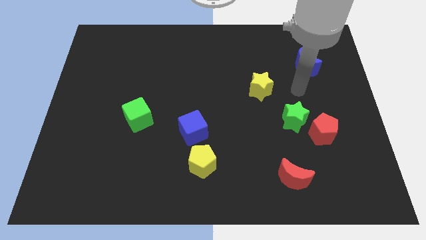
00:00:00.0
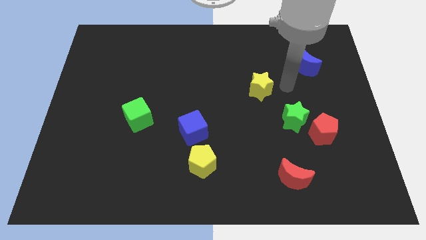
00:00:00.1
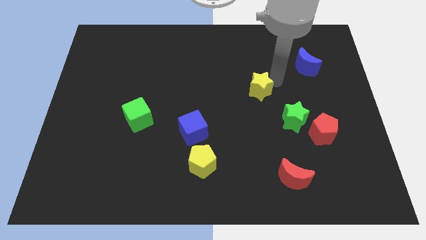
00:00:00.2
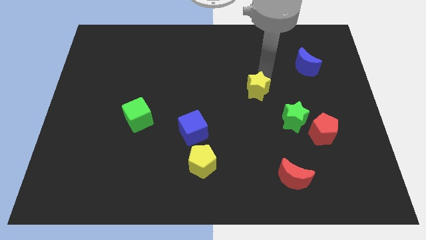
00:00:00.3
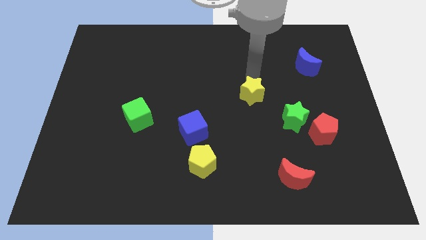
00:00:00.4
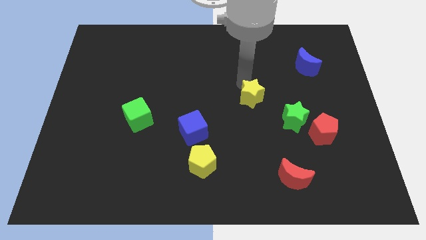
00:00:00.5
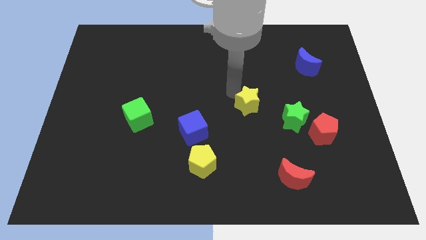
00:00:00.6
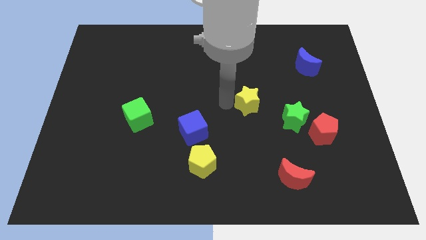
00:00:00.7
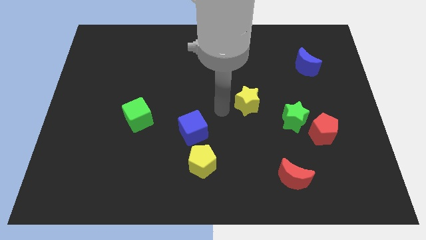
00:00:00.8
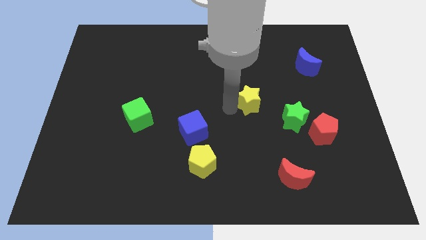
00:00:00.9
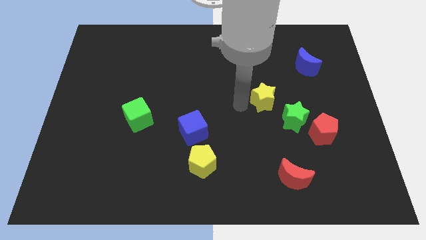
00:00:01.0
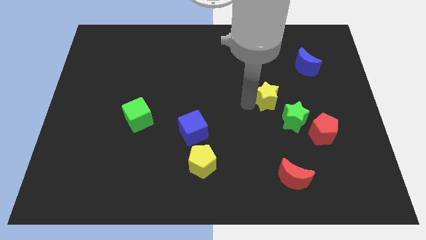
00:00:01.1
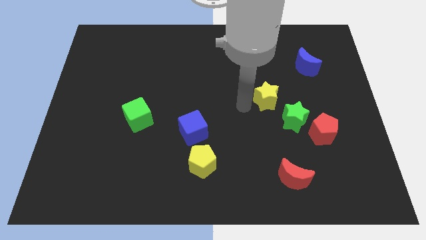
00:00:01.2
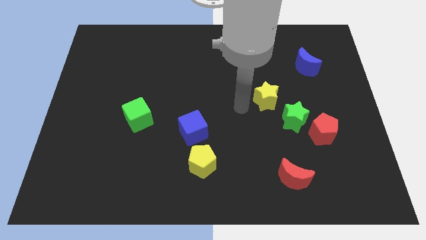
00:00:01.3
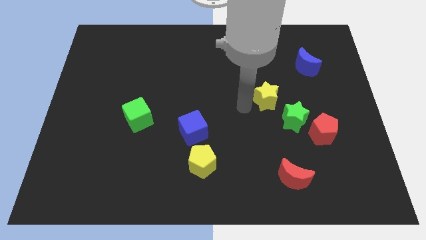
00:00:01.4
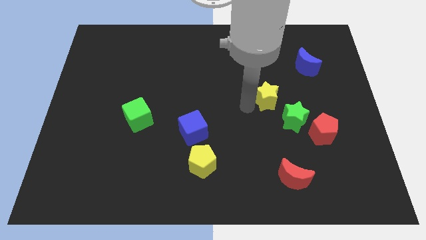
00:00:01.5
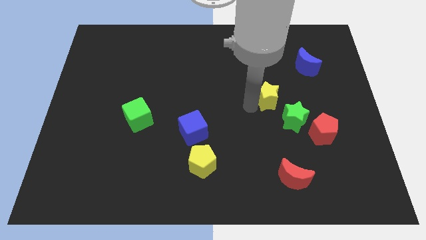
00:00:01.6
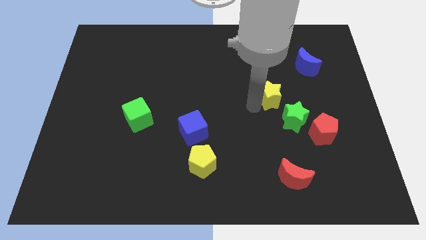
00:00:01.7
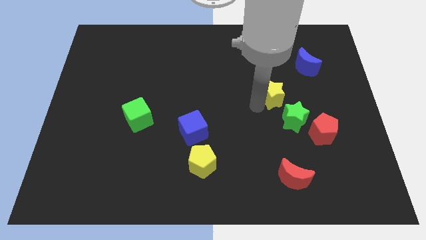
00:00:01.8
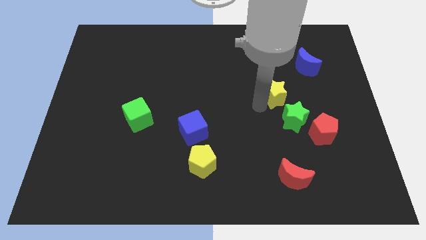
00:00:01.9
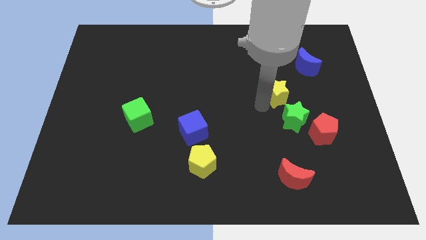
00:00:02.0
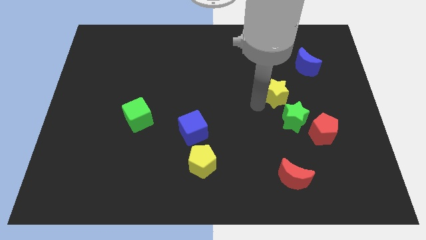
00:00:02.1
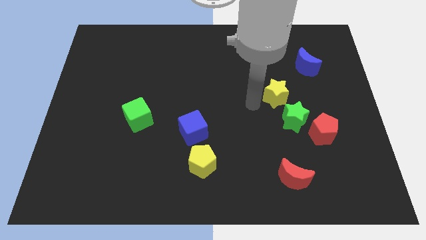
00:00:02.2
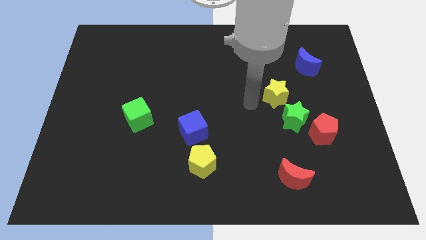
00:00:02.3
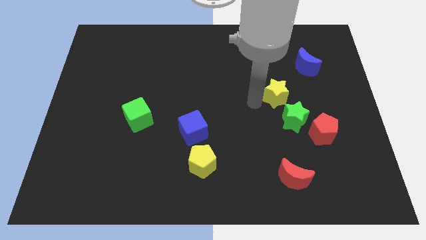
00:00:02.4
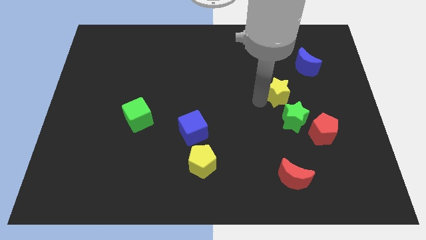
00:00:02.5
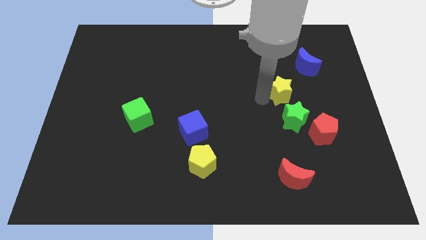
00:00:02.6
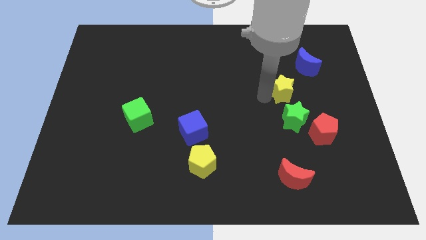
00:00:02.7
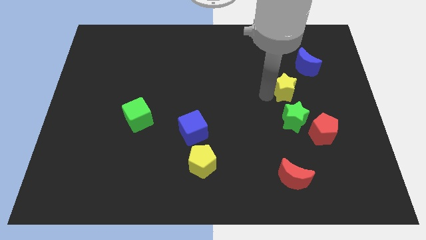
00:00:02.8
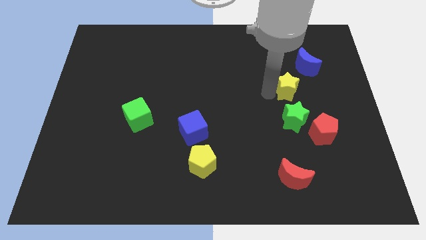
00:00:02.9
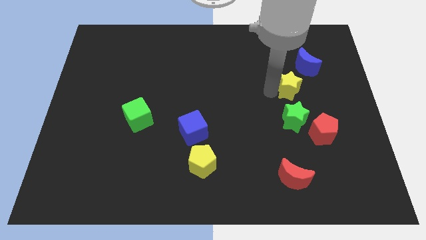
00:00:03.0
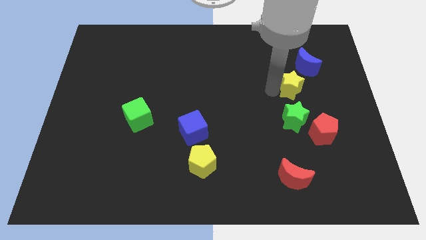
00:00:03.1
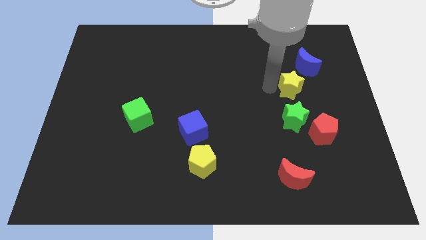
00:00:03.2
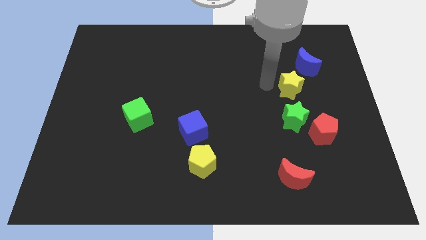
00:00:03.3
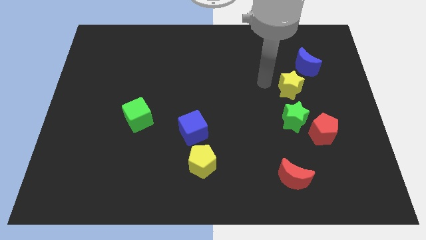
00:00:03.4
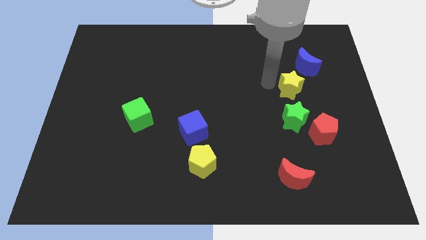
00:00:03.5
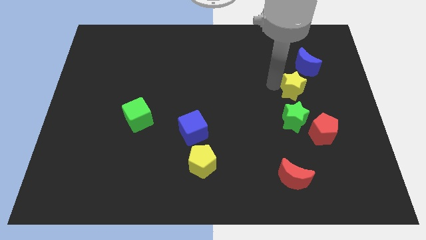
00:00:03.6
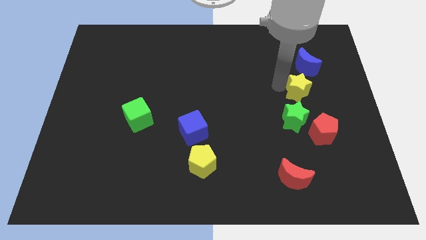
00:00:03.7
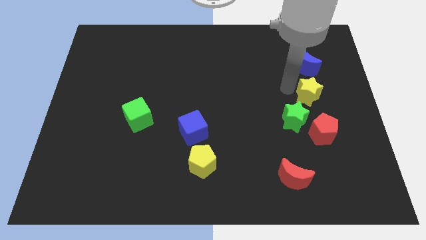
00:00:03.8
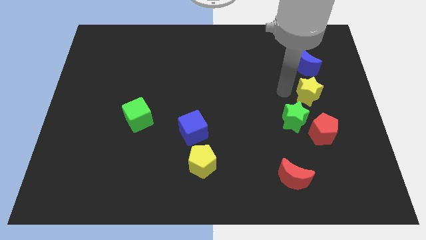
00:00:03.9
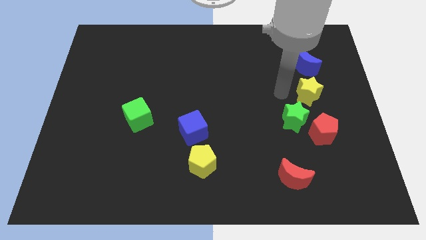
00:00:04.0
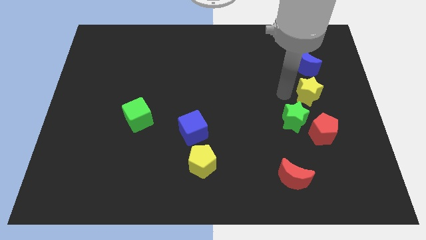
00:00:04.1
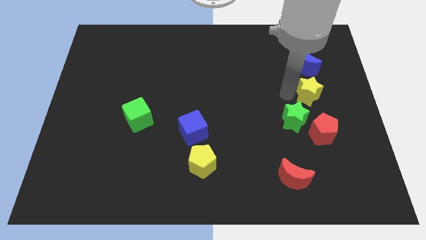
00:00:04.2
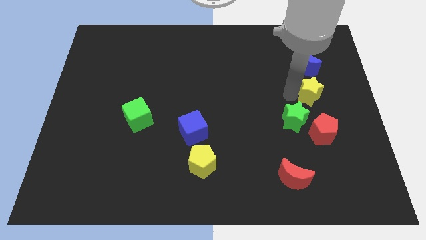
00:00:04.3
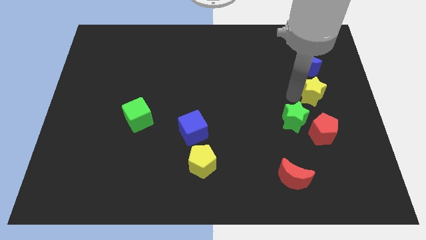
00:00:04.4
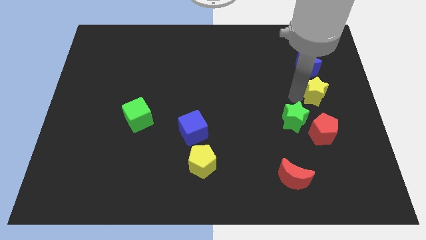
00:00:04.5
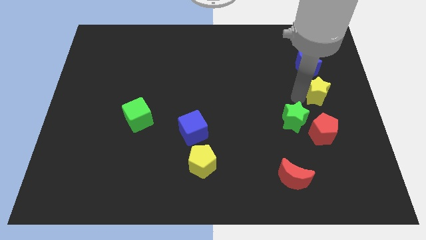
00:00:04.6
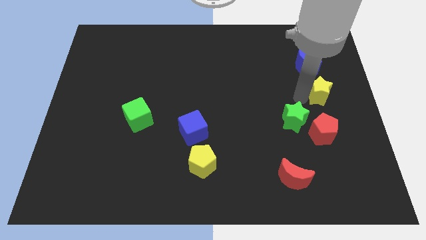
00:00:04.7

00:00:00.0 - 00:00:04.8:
push the yellow star to the right side of the board

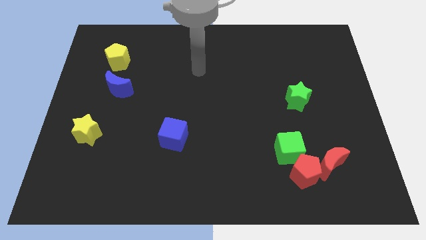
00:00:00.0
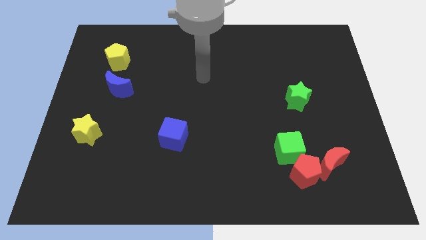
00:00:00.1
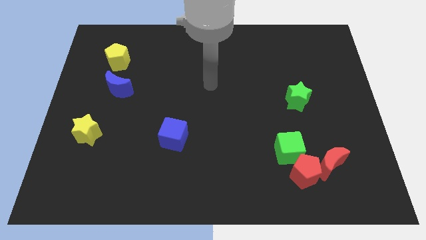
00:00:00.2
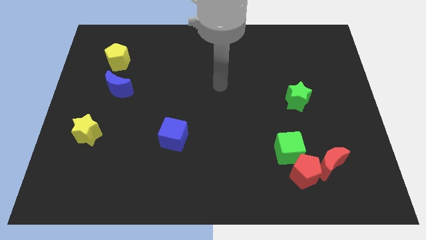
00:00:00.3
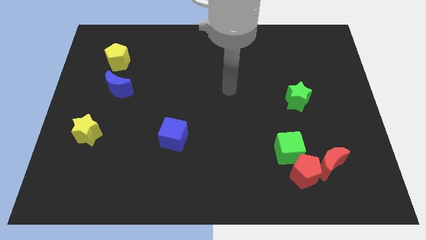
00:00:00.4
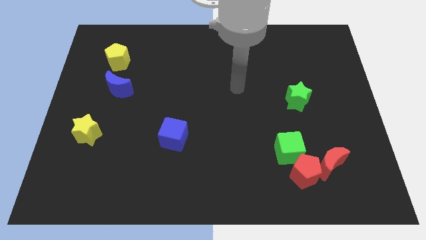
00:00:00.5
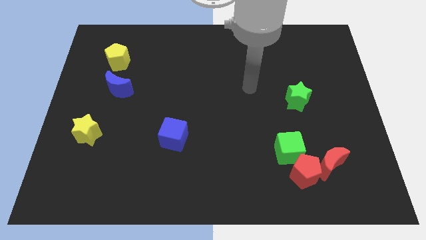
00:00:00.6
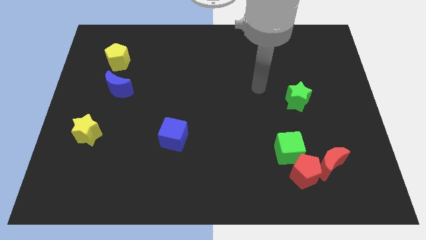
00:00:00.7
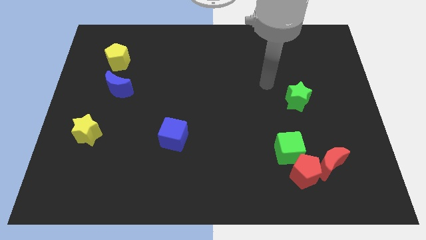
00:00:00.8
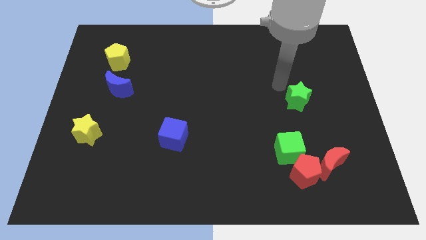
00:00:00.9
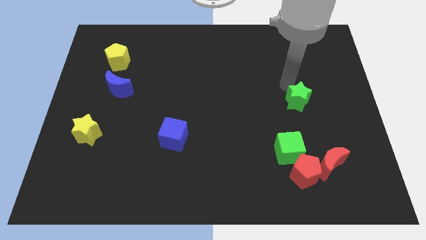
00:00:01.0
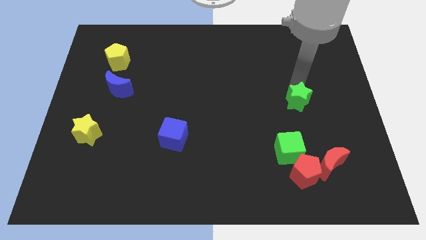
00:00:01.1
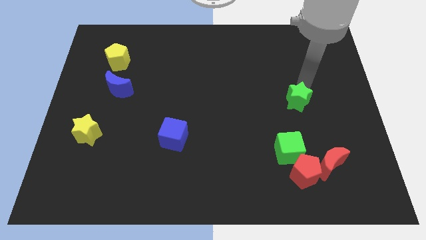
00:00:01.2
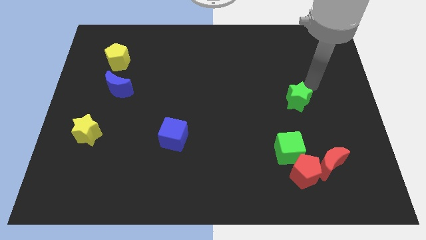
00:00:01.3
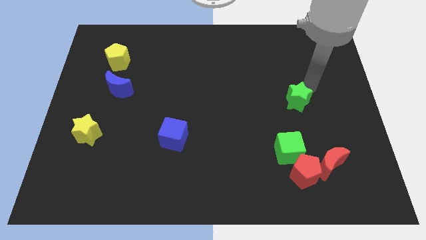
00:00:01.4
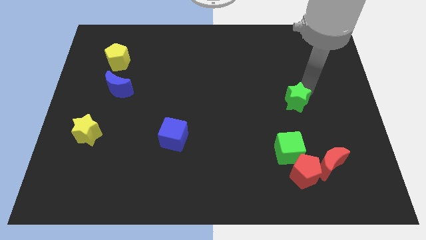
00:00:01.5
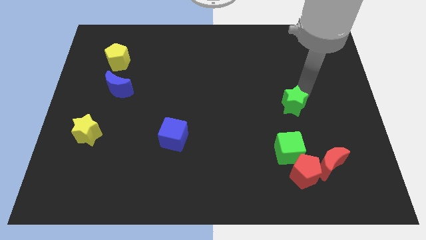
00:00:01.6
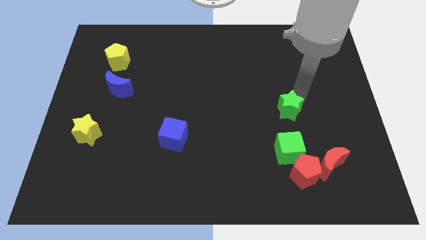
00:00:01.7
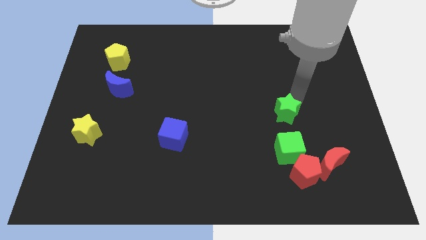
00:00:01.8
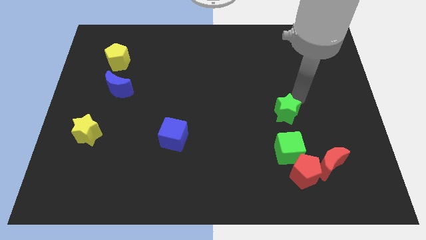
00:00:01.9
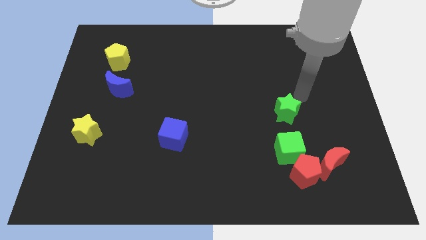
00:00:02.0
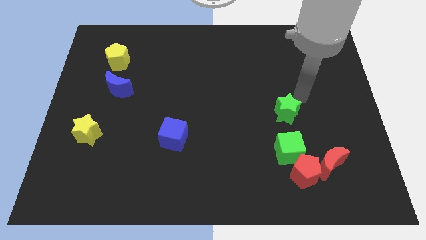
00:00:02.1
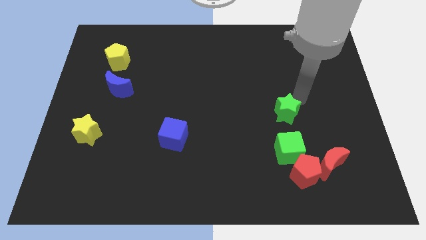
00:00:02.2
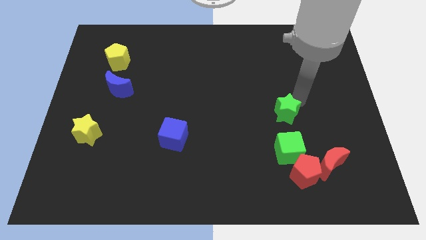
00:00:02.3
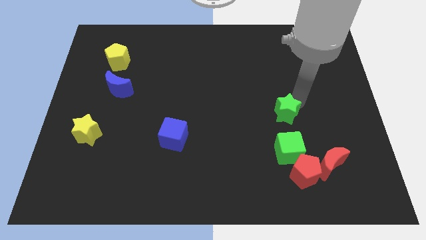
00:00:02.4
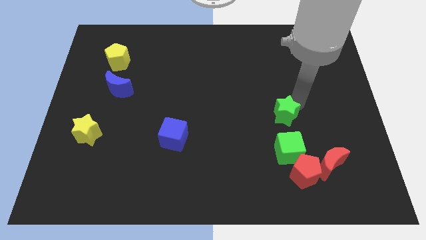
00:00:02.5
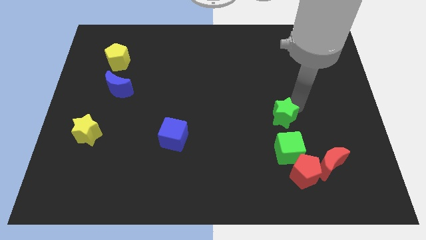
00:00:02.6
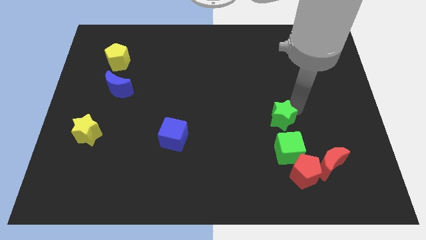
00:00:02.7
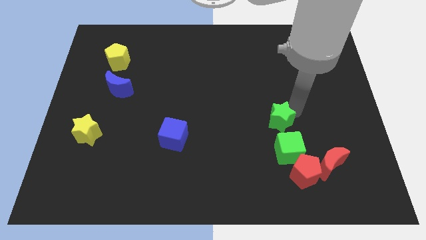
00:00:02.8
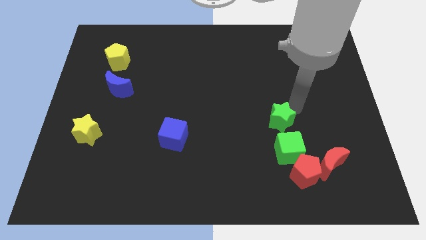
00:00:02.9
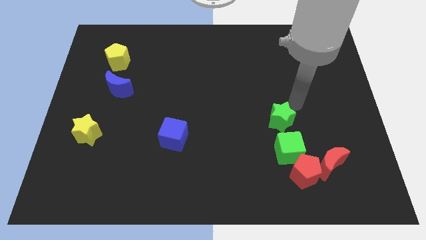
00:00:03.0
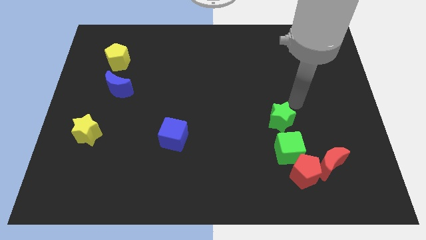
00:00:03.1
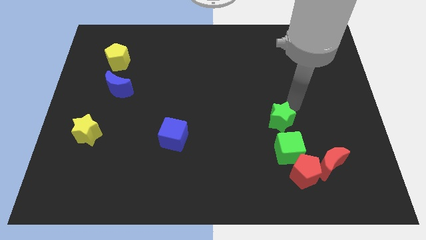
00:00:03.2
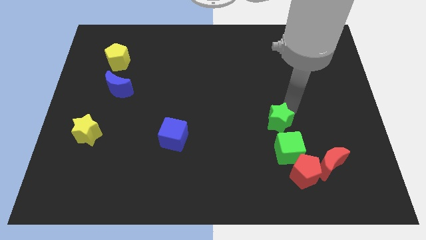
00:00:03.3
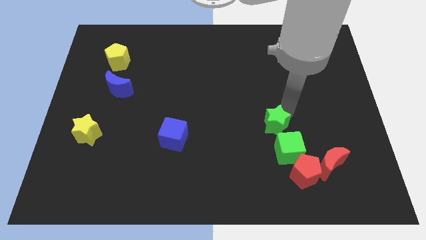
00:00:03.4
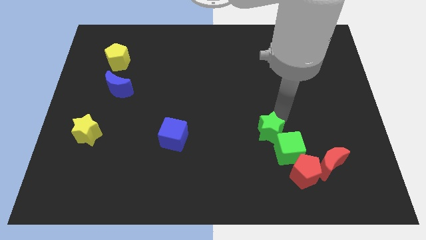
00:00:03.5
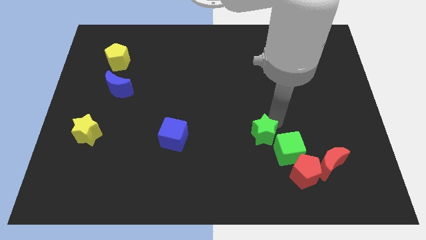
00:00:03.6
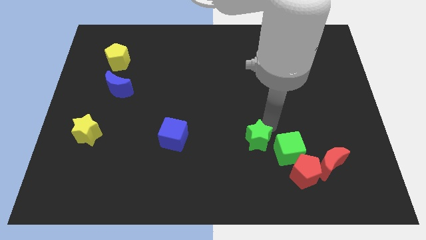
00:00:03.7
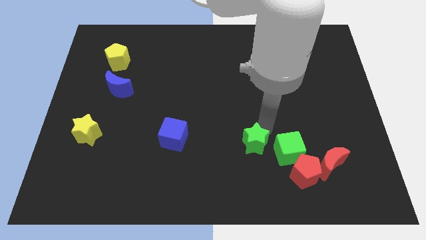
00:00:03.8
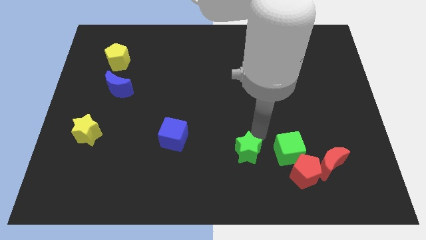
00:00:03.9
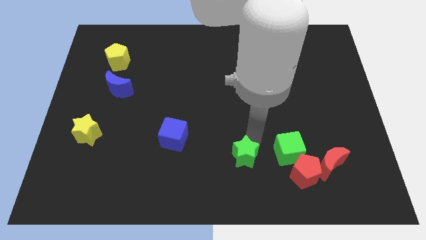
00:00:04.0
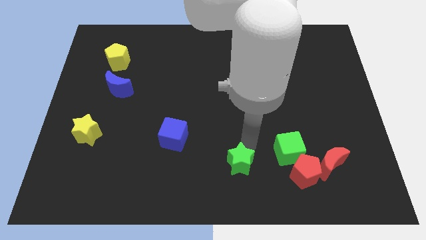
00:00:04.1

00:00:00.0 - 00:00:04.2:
put the green star to the bottom side
